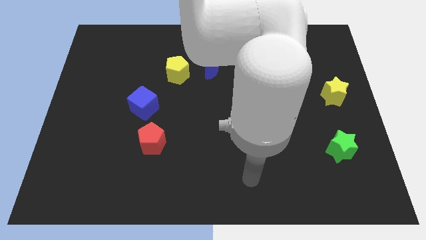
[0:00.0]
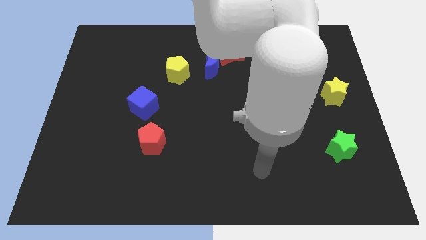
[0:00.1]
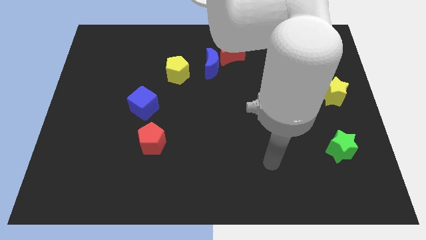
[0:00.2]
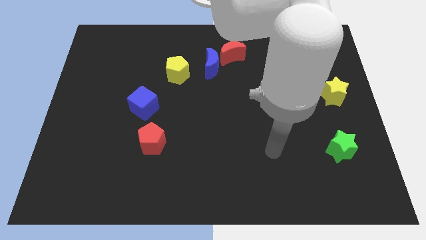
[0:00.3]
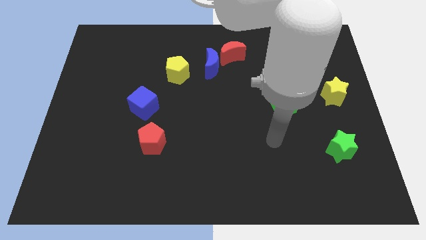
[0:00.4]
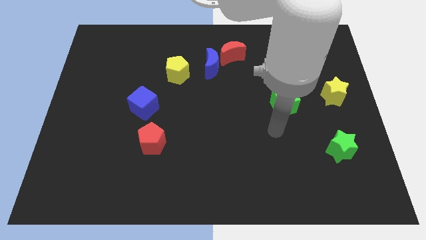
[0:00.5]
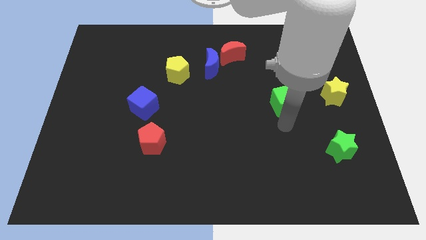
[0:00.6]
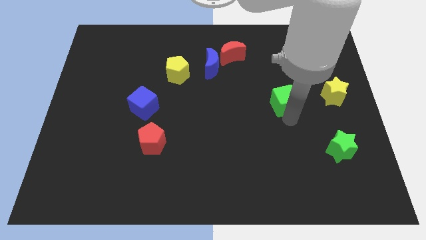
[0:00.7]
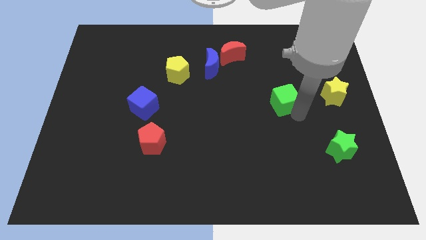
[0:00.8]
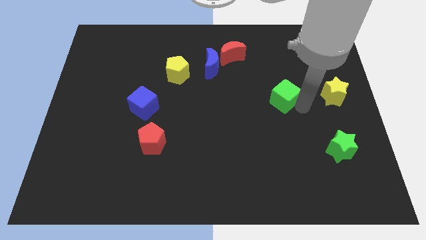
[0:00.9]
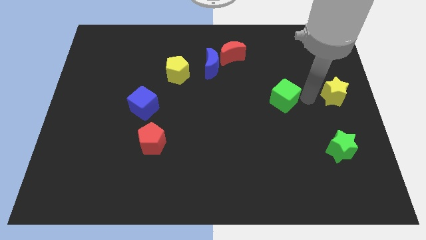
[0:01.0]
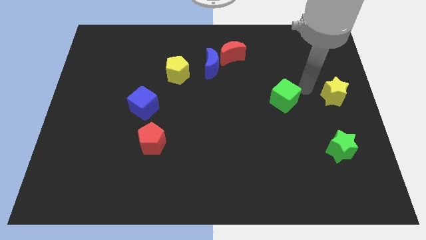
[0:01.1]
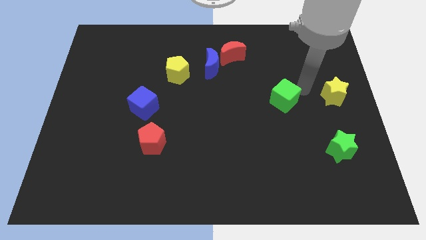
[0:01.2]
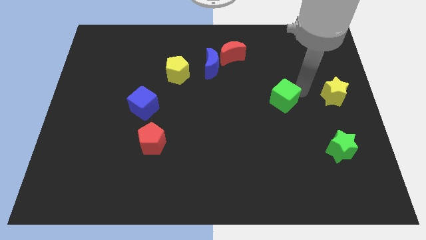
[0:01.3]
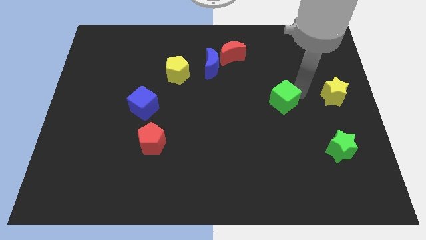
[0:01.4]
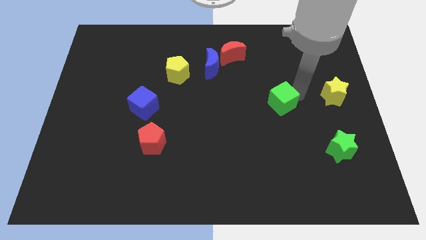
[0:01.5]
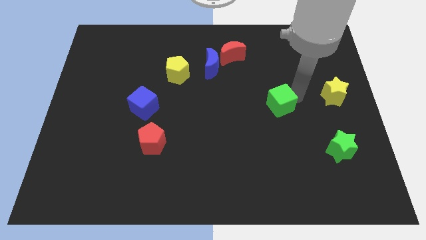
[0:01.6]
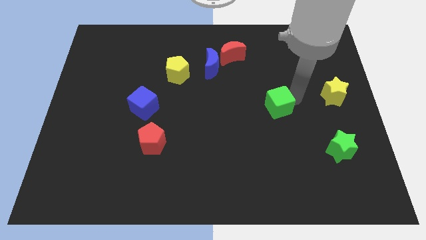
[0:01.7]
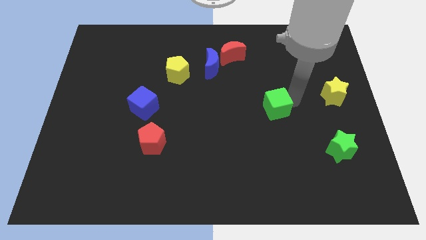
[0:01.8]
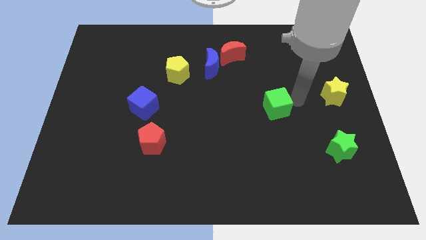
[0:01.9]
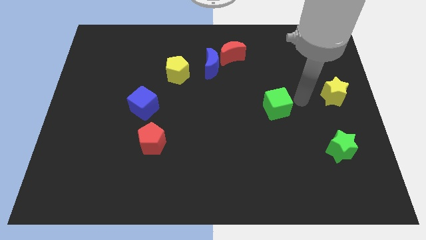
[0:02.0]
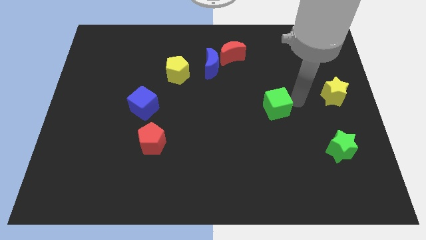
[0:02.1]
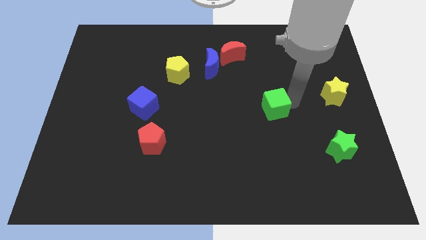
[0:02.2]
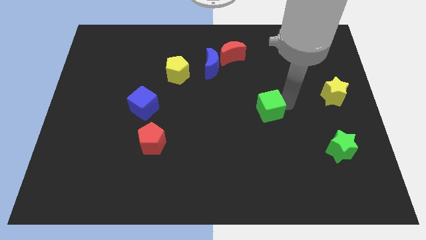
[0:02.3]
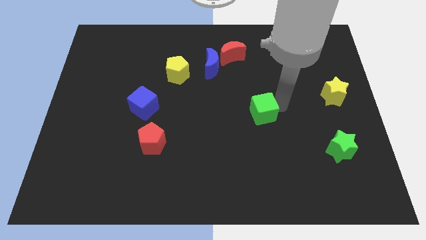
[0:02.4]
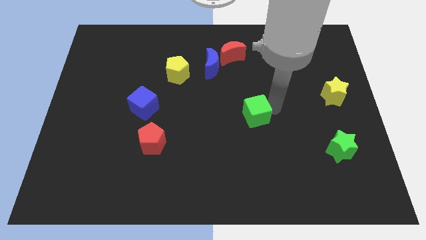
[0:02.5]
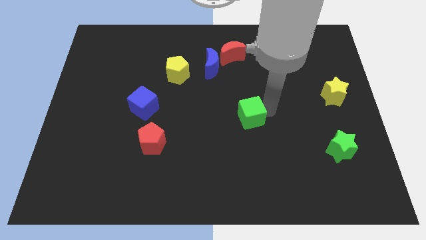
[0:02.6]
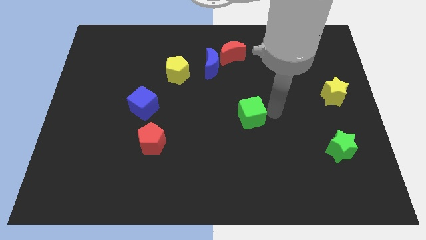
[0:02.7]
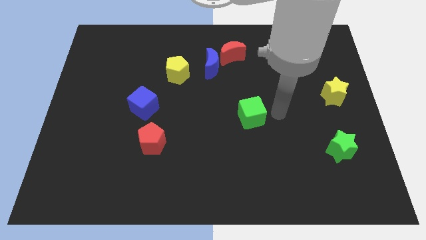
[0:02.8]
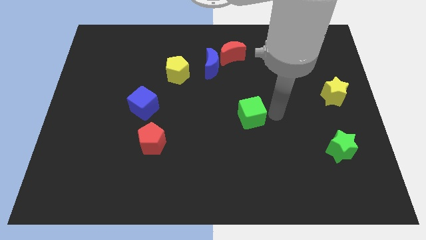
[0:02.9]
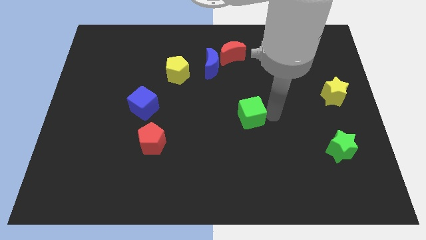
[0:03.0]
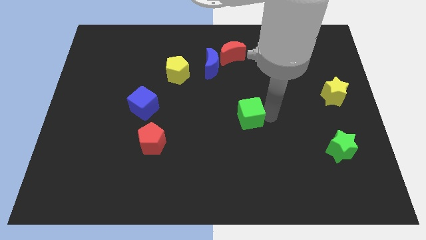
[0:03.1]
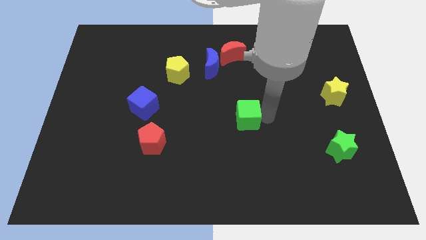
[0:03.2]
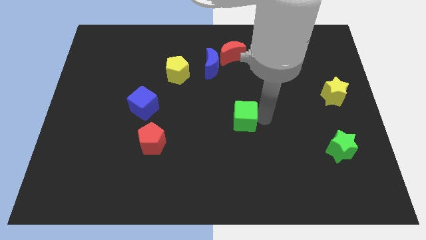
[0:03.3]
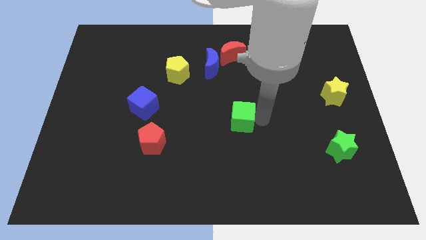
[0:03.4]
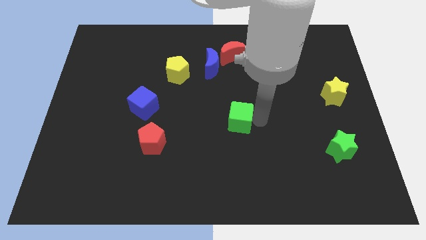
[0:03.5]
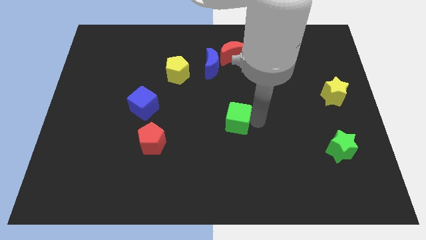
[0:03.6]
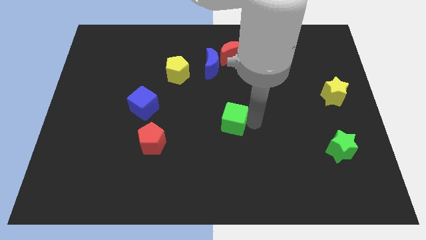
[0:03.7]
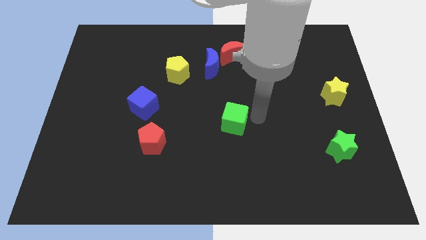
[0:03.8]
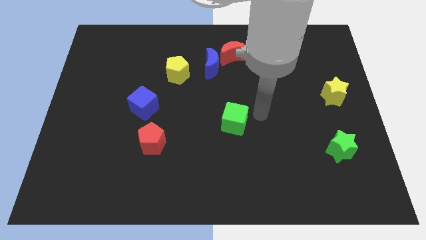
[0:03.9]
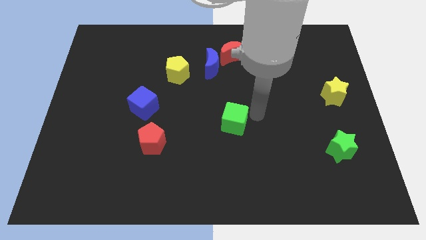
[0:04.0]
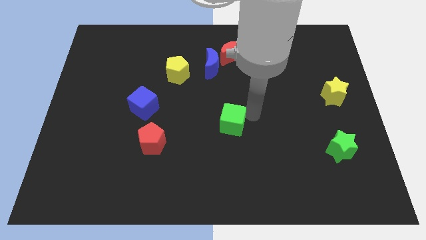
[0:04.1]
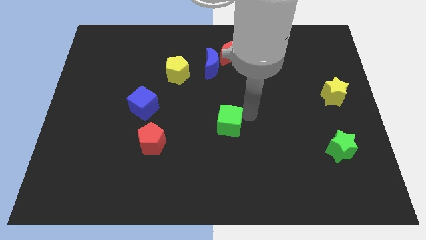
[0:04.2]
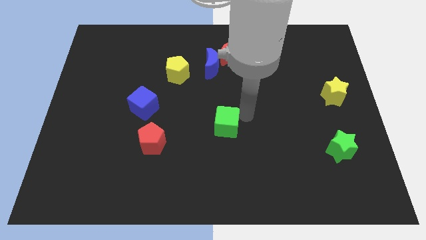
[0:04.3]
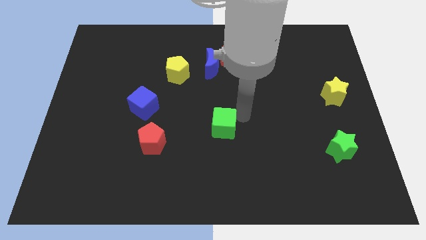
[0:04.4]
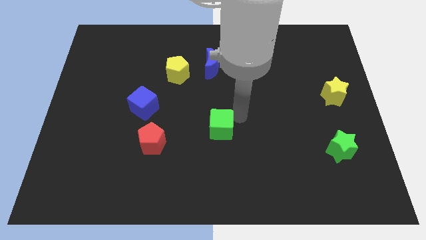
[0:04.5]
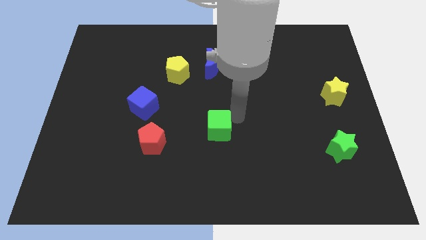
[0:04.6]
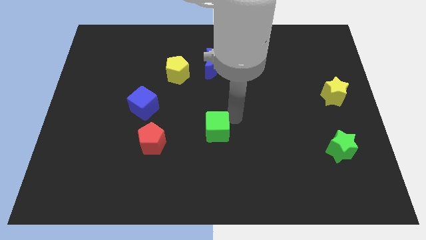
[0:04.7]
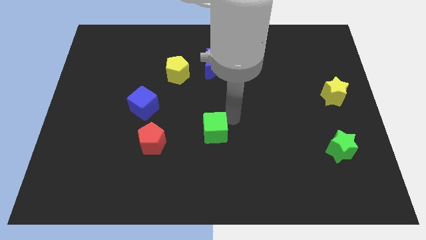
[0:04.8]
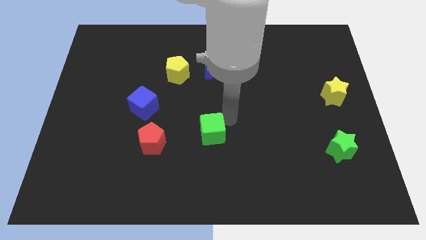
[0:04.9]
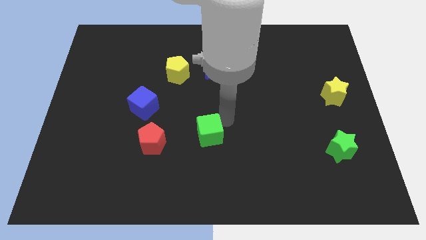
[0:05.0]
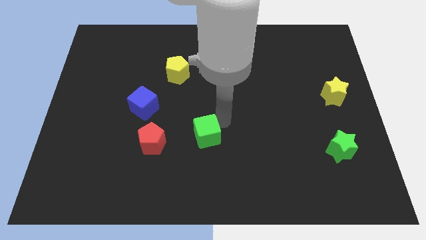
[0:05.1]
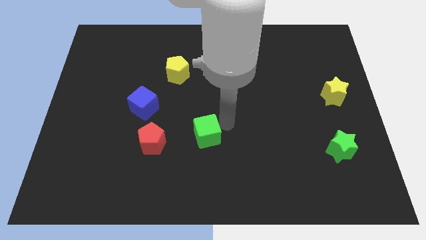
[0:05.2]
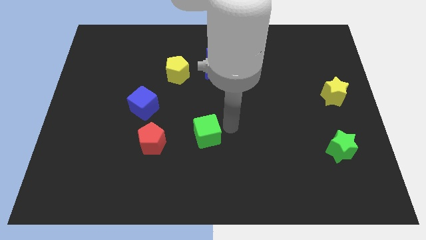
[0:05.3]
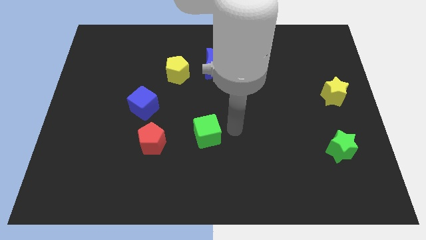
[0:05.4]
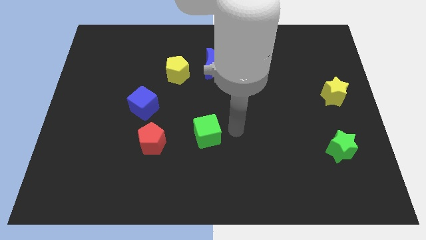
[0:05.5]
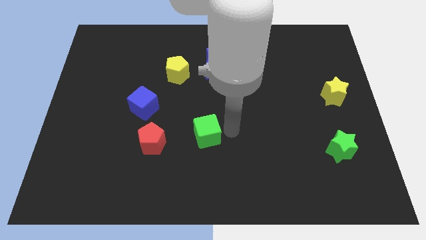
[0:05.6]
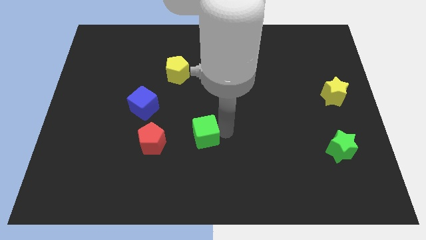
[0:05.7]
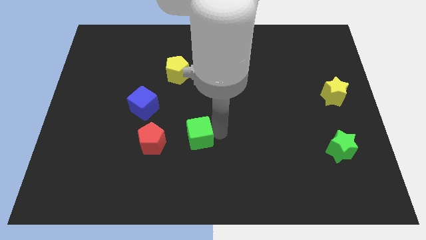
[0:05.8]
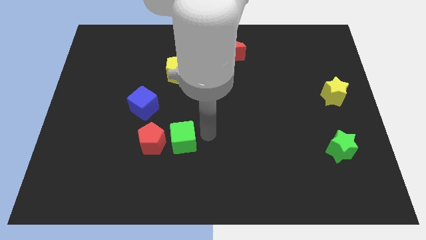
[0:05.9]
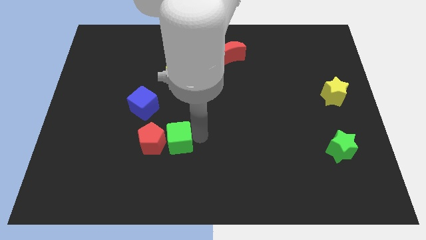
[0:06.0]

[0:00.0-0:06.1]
put the green cube towards the red pentagon

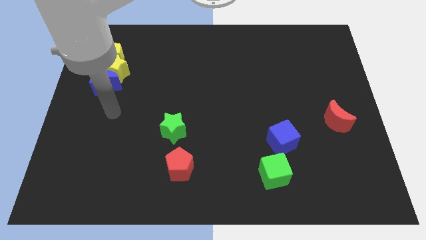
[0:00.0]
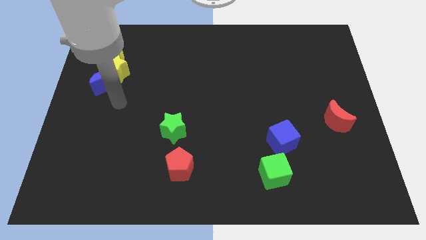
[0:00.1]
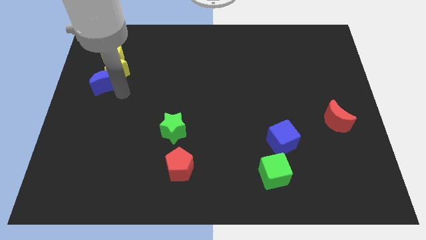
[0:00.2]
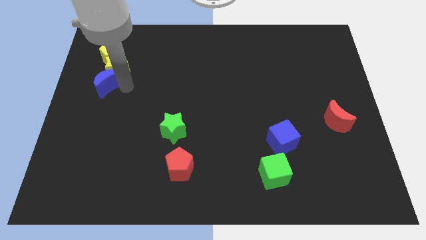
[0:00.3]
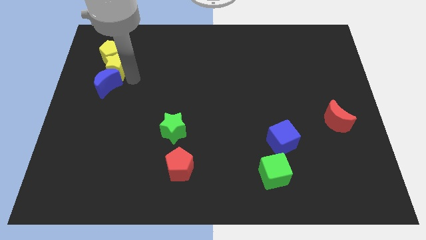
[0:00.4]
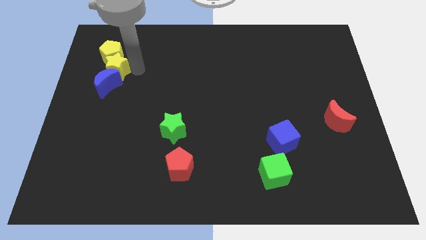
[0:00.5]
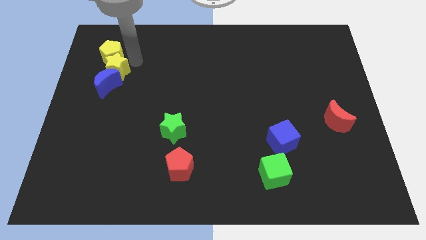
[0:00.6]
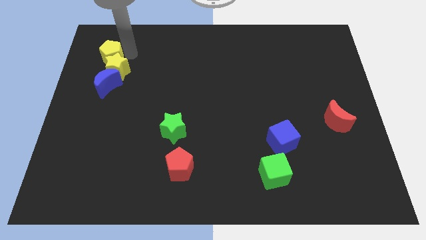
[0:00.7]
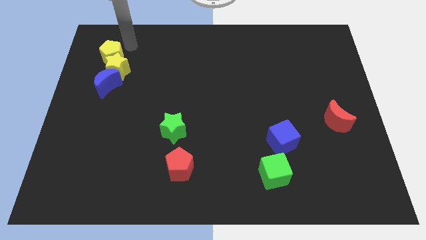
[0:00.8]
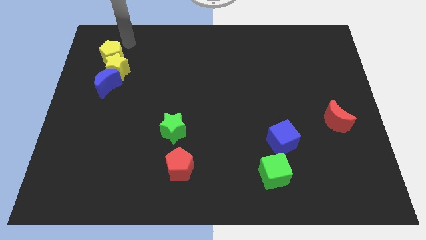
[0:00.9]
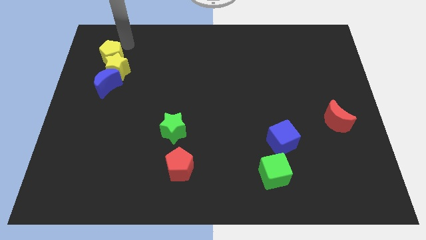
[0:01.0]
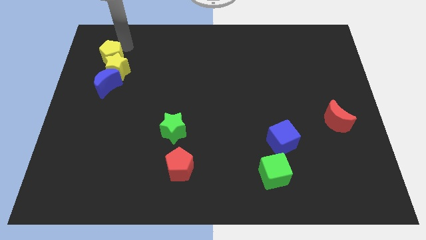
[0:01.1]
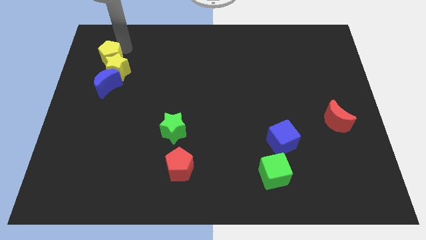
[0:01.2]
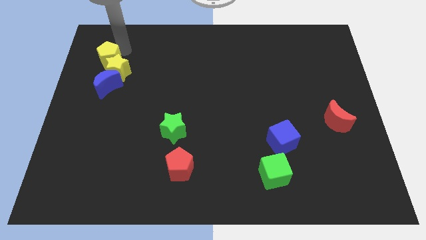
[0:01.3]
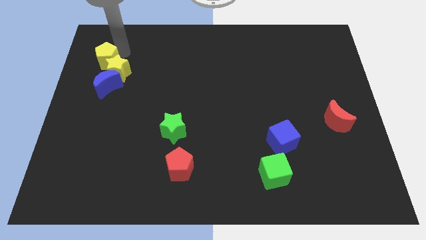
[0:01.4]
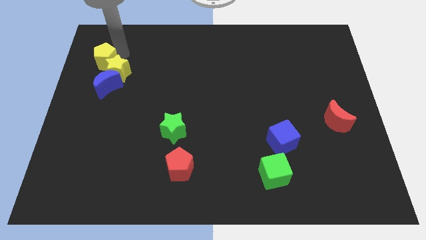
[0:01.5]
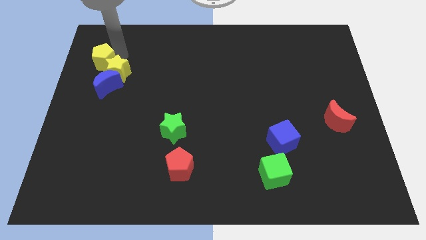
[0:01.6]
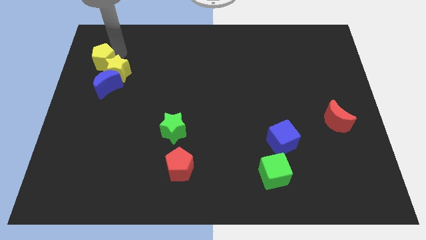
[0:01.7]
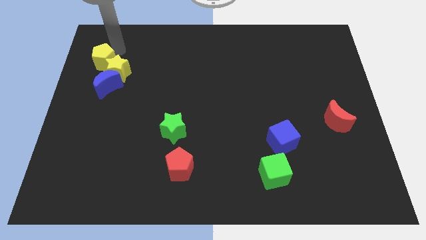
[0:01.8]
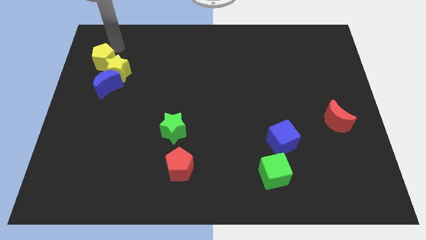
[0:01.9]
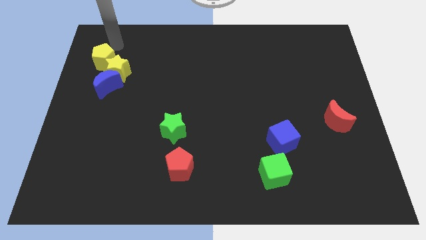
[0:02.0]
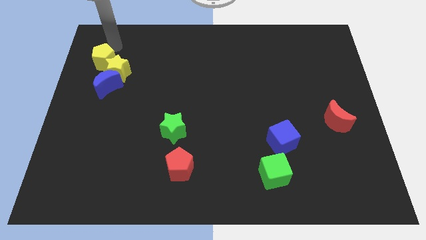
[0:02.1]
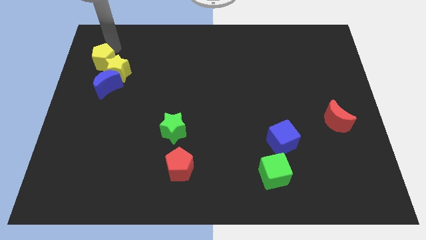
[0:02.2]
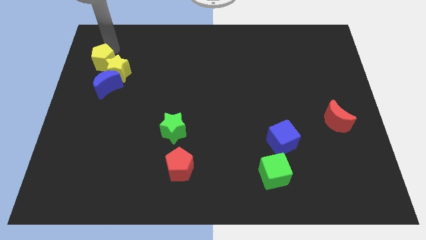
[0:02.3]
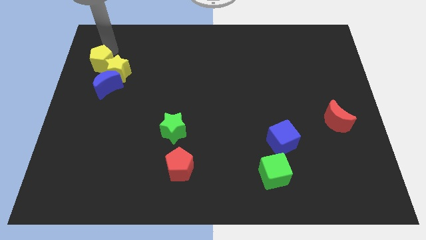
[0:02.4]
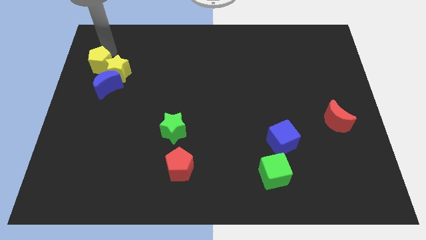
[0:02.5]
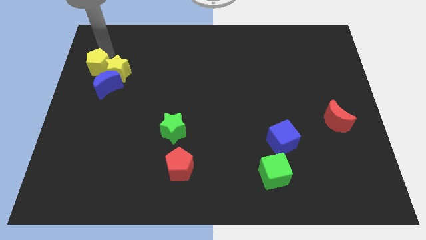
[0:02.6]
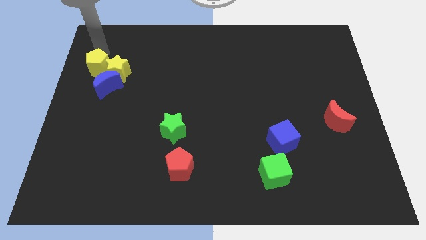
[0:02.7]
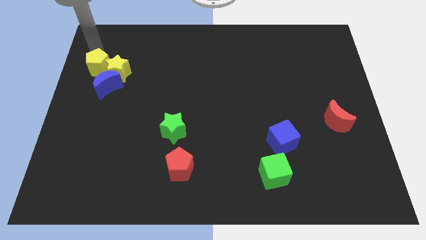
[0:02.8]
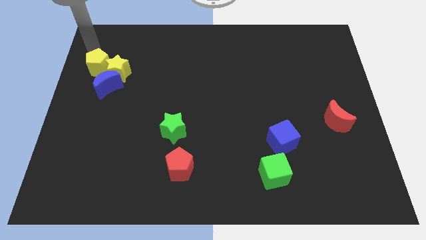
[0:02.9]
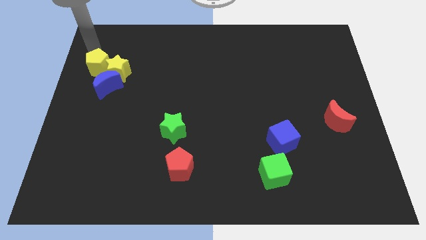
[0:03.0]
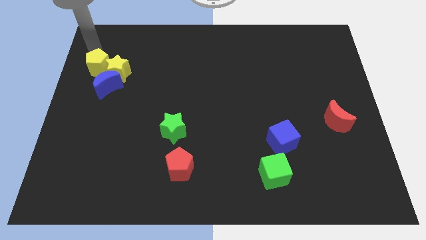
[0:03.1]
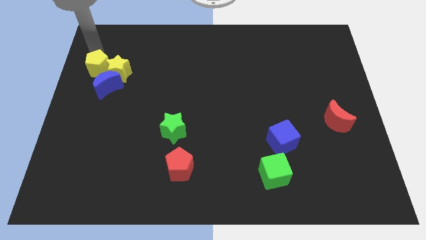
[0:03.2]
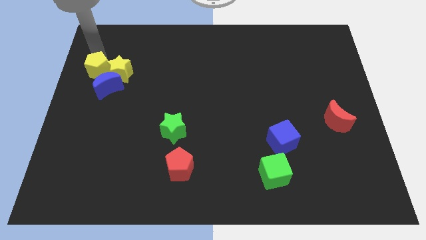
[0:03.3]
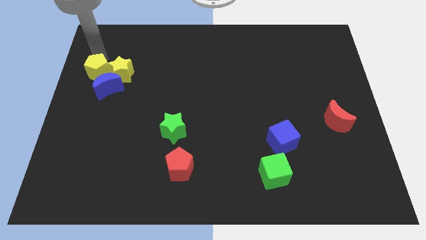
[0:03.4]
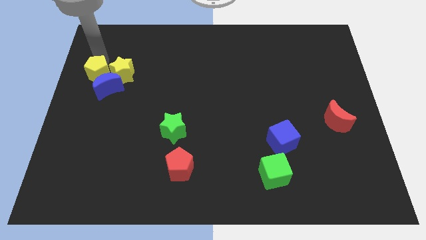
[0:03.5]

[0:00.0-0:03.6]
move the yellow pentagon towards the blue moon
